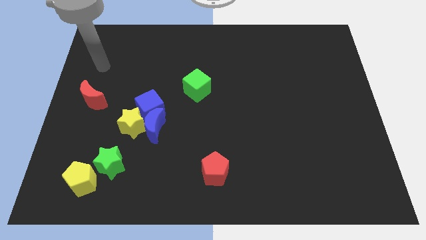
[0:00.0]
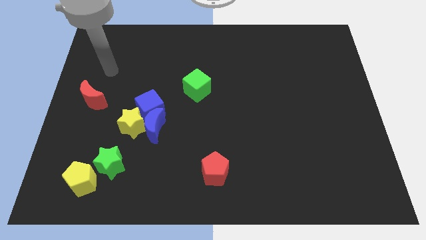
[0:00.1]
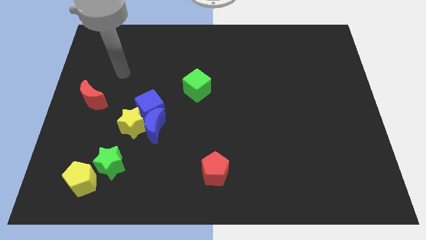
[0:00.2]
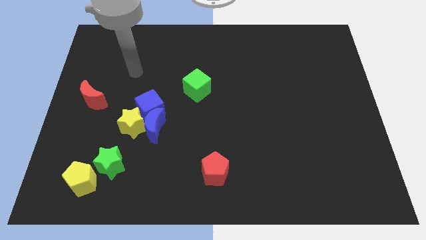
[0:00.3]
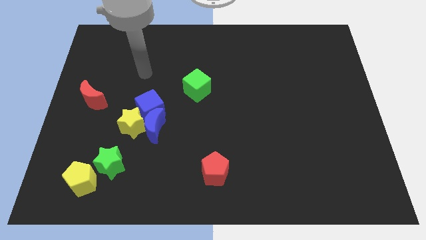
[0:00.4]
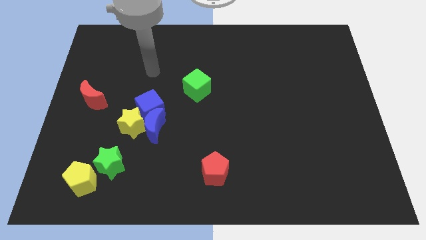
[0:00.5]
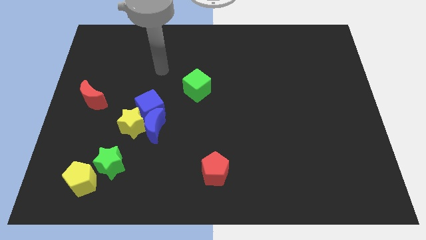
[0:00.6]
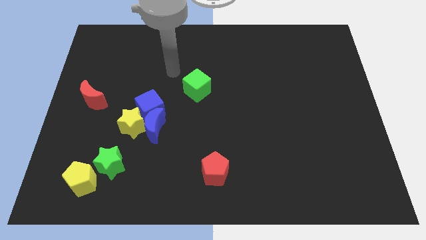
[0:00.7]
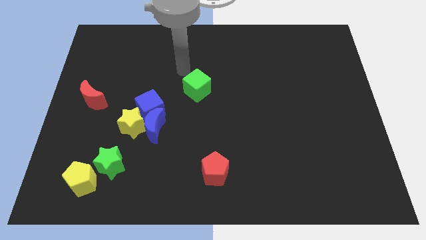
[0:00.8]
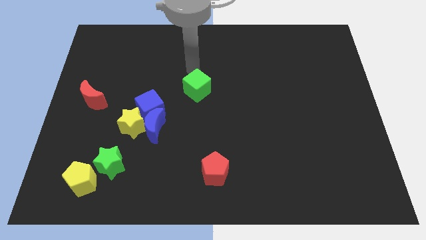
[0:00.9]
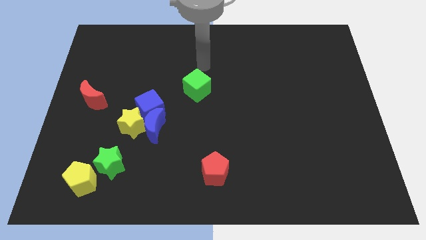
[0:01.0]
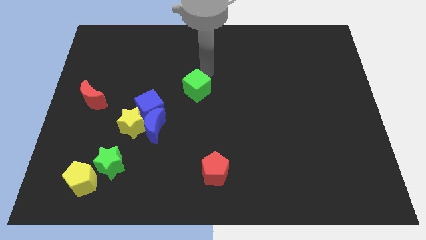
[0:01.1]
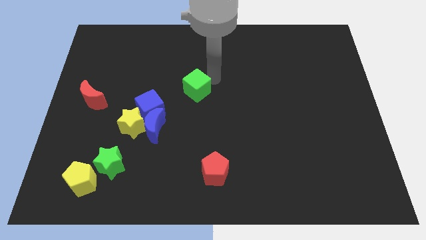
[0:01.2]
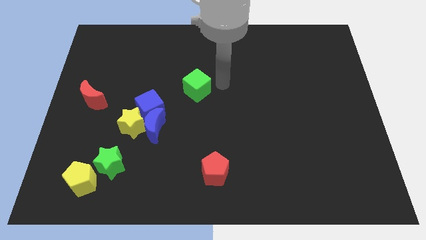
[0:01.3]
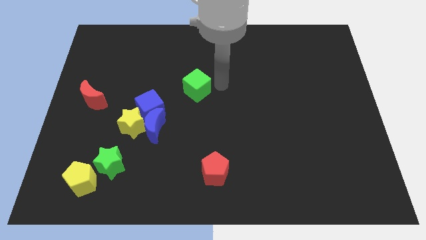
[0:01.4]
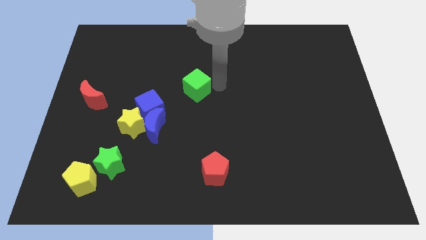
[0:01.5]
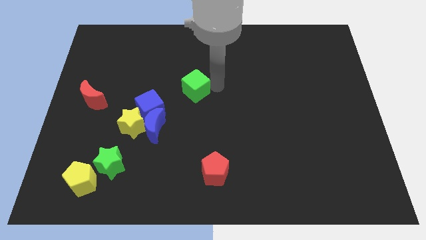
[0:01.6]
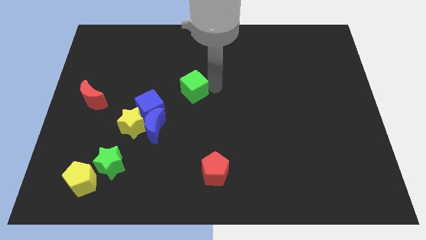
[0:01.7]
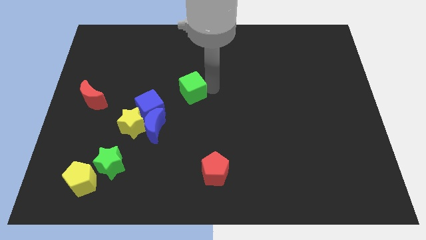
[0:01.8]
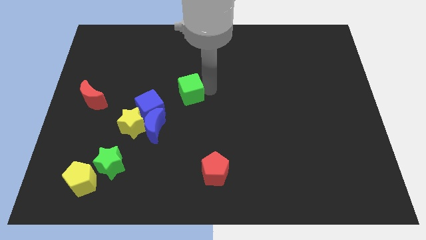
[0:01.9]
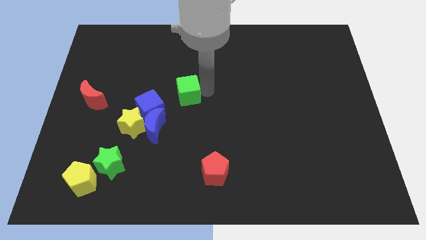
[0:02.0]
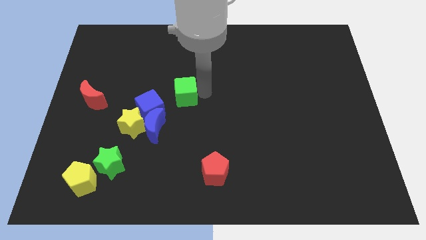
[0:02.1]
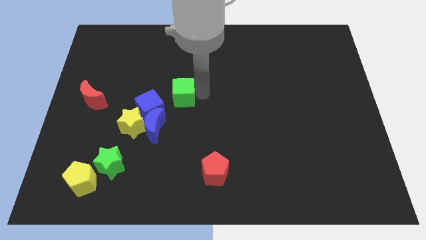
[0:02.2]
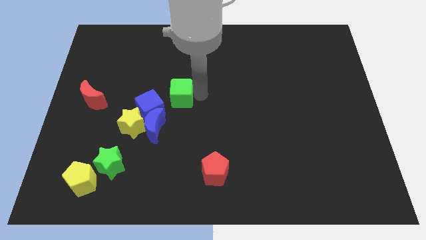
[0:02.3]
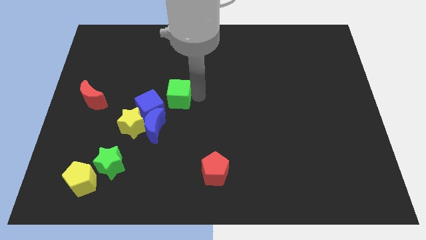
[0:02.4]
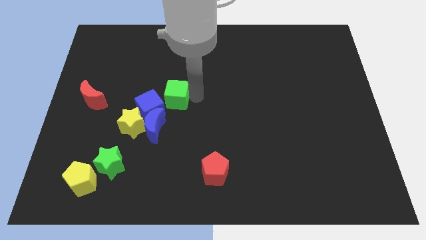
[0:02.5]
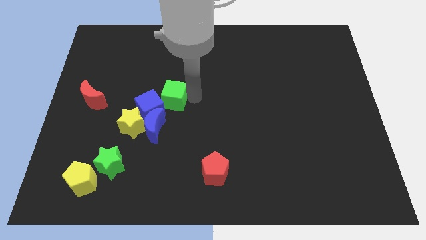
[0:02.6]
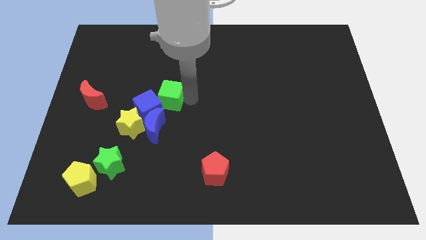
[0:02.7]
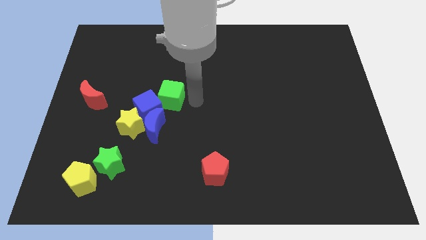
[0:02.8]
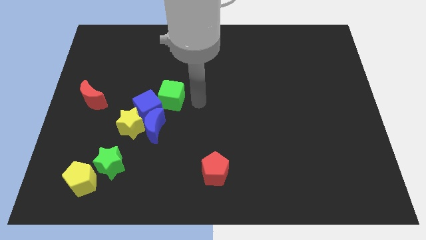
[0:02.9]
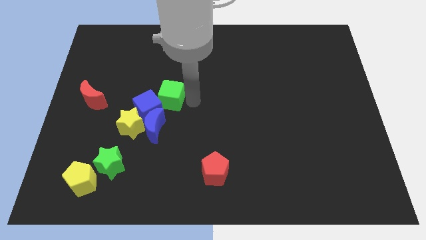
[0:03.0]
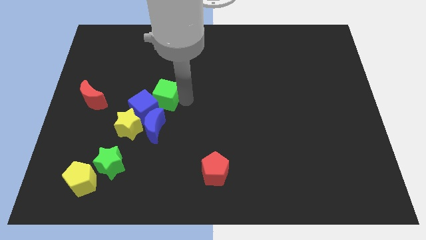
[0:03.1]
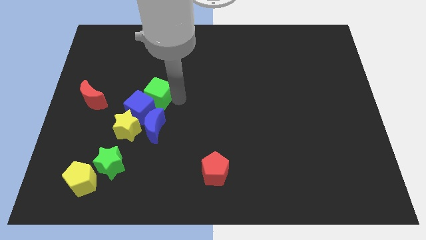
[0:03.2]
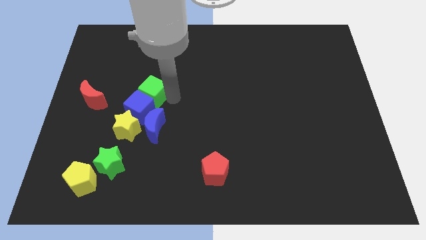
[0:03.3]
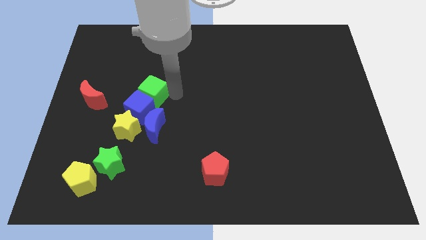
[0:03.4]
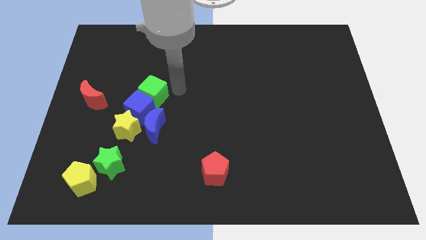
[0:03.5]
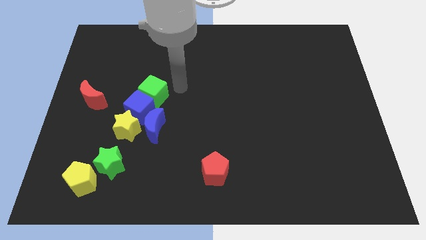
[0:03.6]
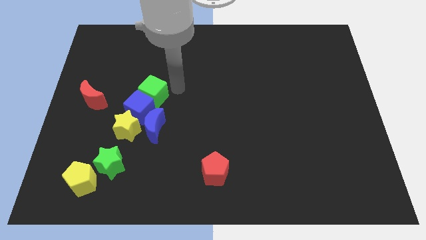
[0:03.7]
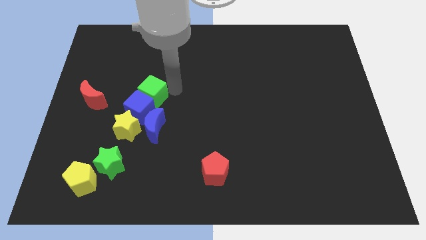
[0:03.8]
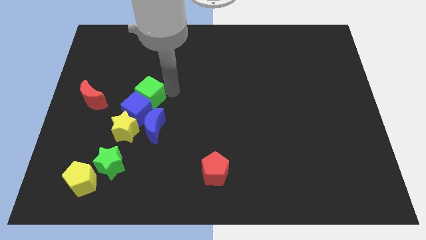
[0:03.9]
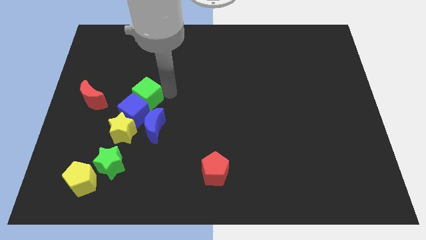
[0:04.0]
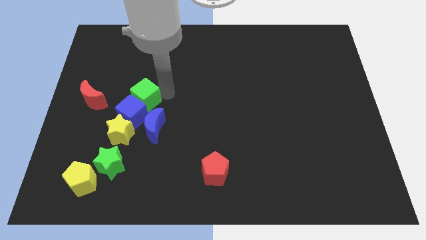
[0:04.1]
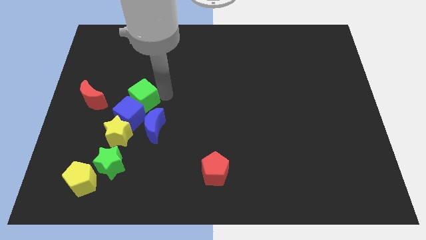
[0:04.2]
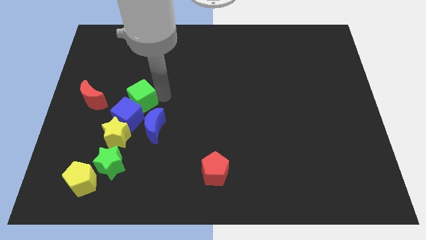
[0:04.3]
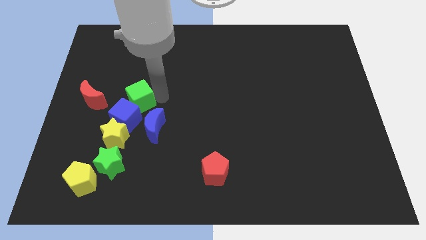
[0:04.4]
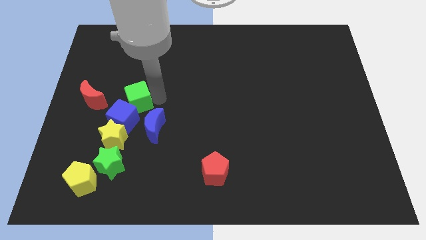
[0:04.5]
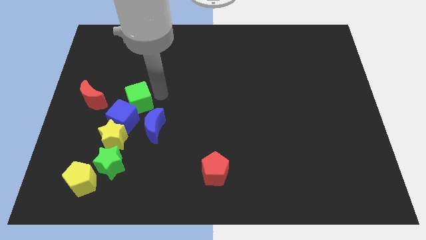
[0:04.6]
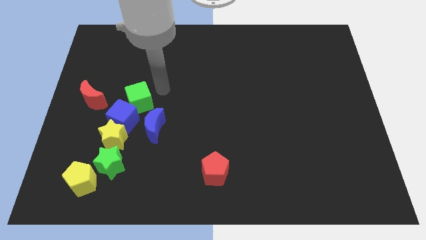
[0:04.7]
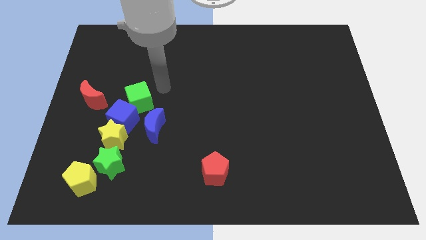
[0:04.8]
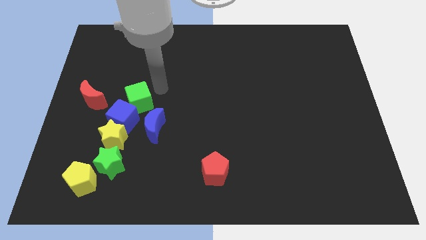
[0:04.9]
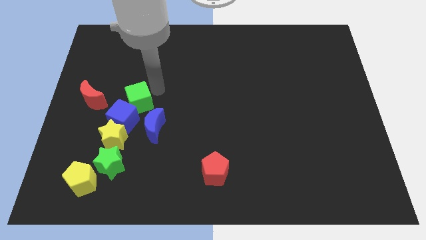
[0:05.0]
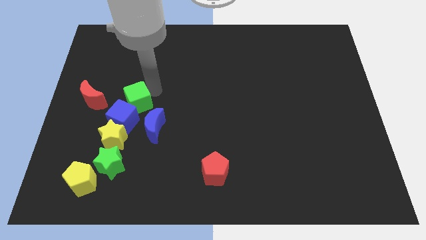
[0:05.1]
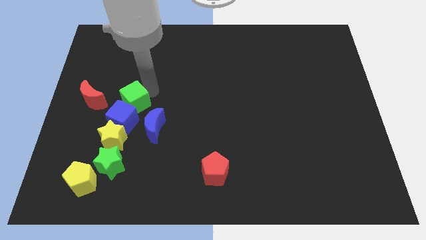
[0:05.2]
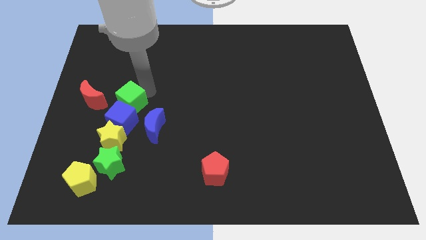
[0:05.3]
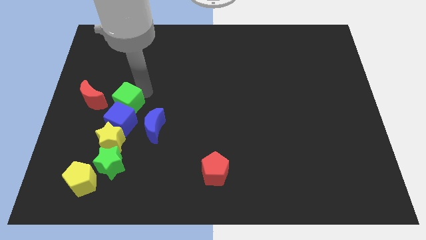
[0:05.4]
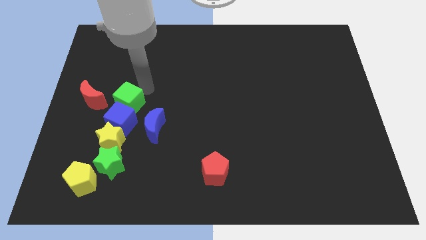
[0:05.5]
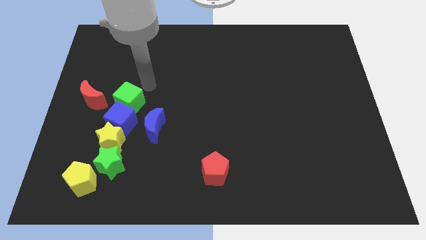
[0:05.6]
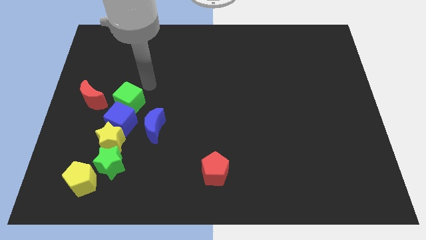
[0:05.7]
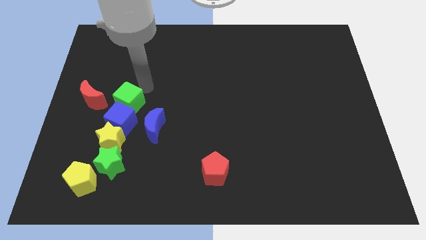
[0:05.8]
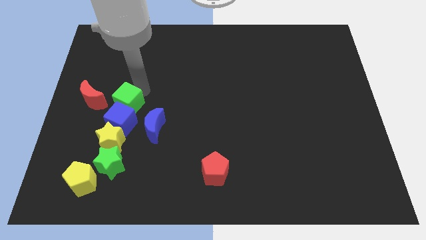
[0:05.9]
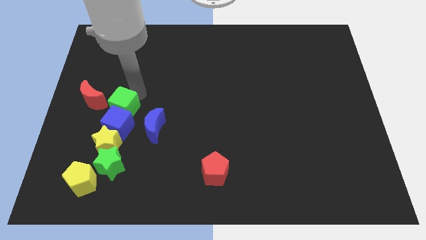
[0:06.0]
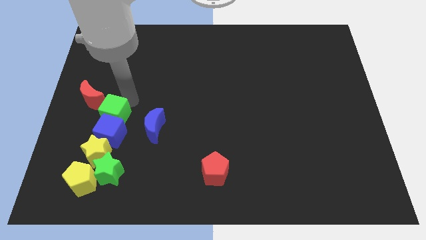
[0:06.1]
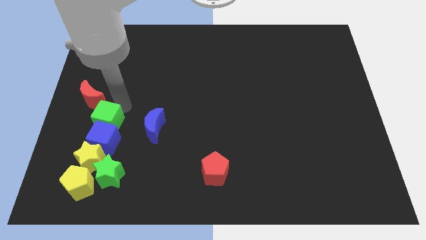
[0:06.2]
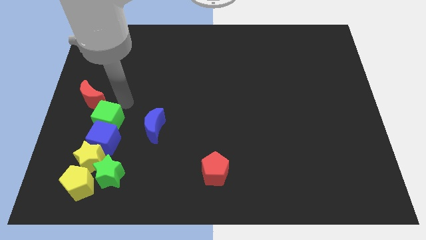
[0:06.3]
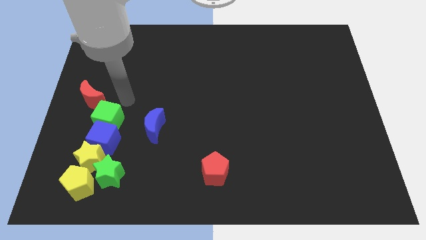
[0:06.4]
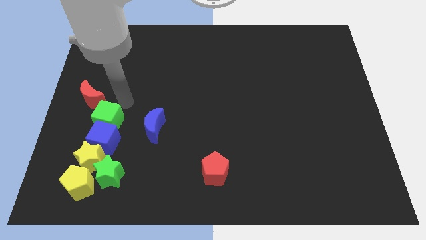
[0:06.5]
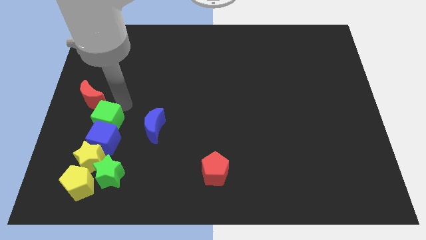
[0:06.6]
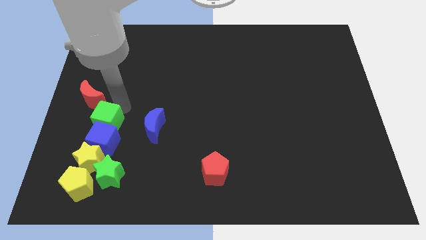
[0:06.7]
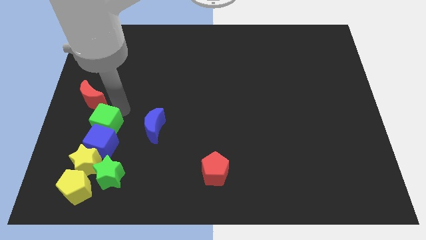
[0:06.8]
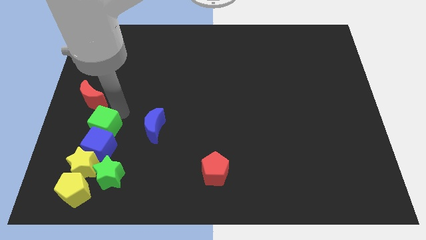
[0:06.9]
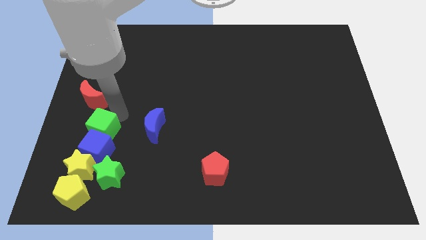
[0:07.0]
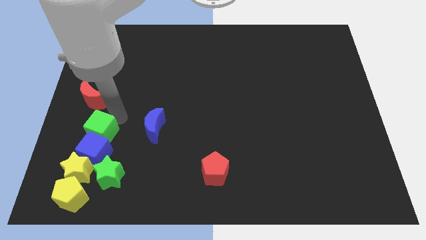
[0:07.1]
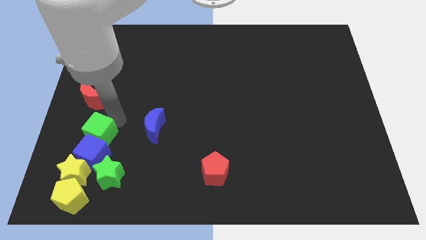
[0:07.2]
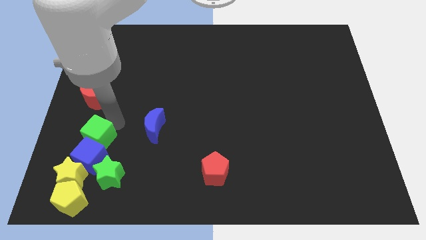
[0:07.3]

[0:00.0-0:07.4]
slide the green cube to the top side of the yellow pentagon

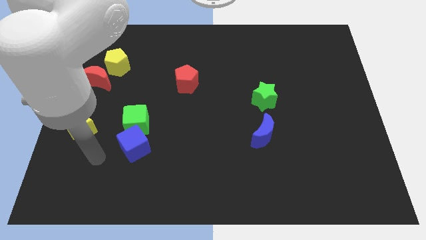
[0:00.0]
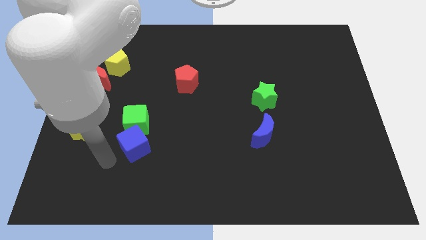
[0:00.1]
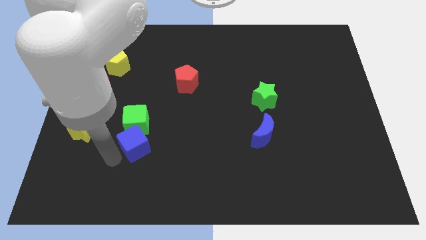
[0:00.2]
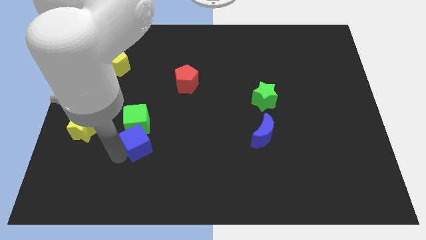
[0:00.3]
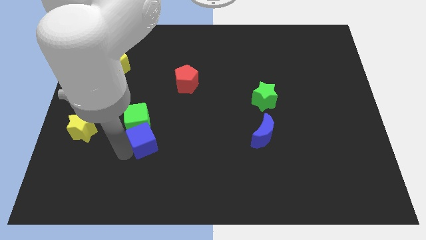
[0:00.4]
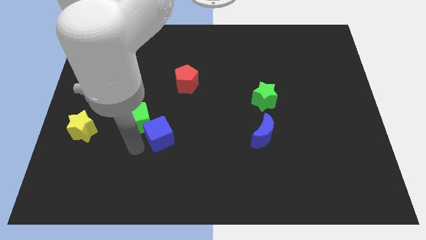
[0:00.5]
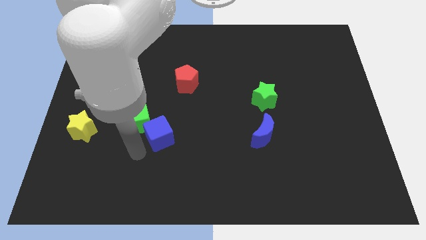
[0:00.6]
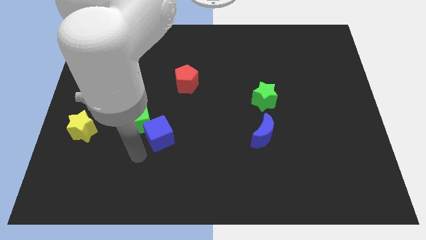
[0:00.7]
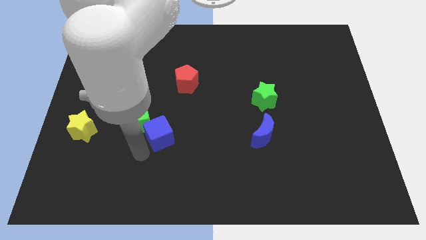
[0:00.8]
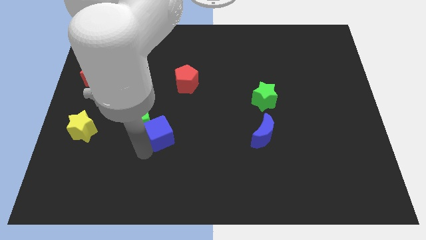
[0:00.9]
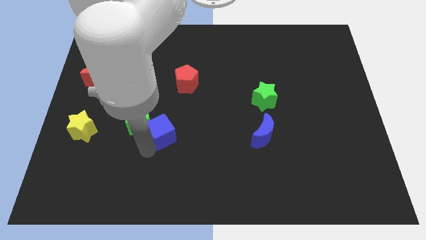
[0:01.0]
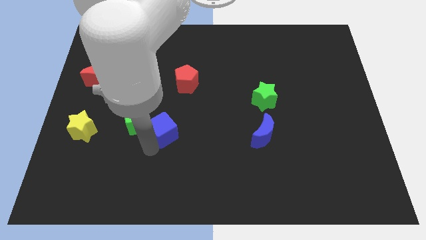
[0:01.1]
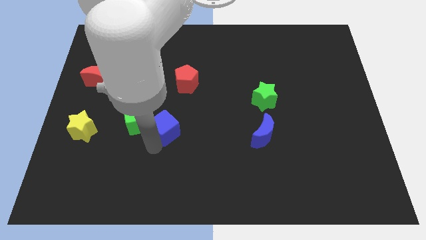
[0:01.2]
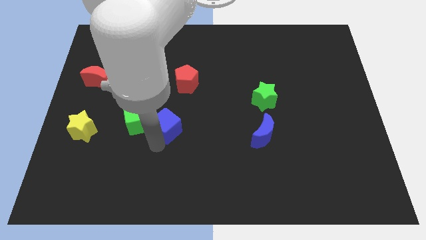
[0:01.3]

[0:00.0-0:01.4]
slide the blue cube to the bottom of the red pentagon
